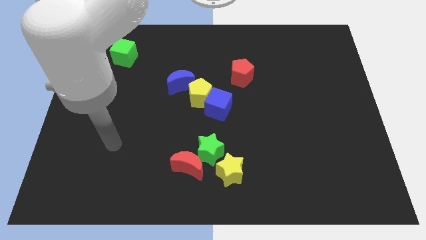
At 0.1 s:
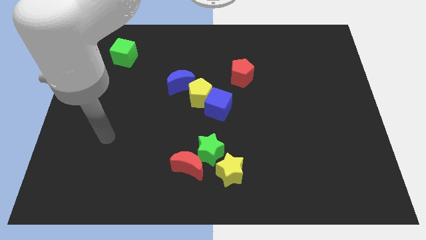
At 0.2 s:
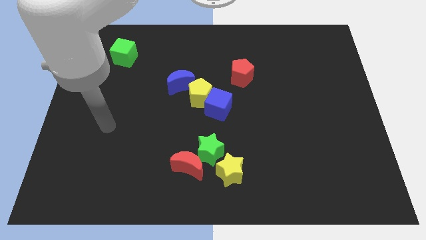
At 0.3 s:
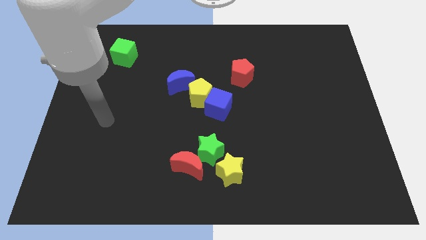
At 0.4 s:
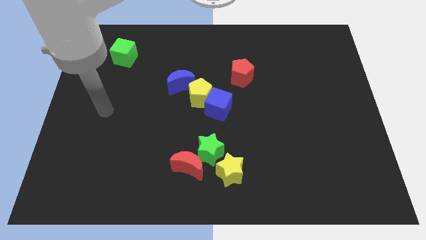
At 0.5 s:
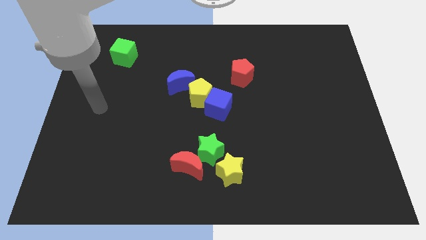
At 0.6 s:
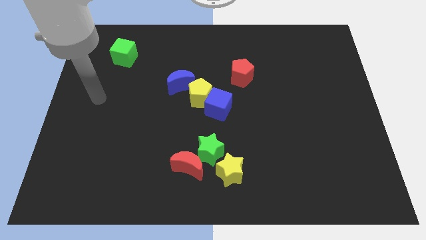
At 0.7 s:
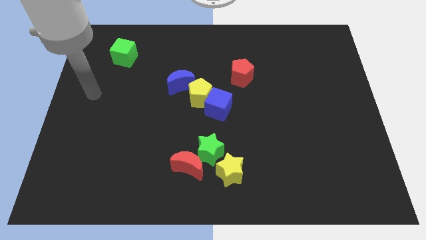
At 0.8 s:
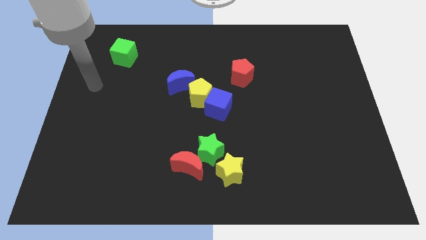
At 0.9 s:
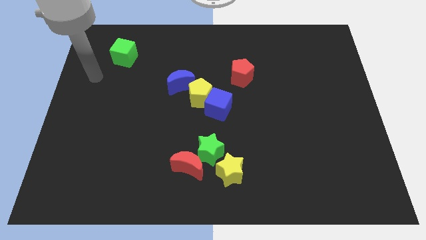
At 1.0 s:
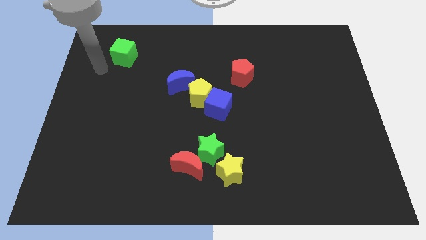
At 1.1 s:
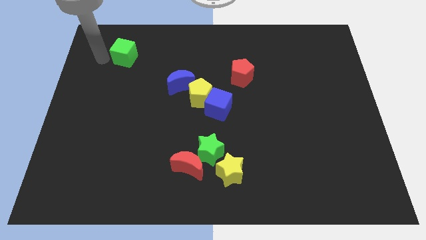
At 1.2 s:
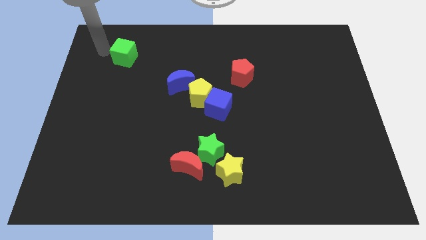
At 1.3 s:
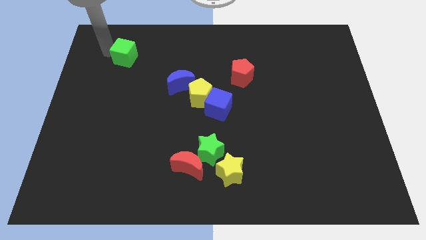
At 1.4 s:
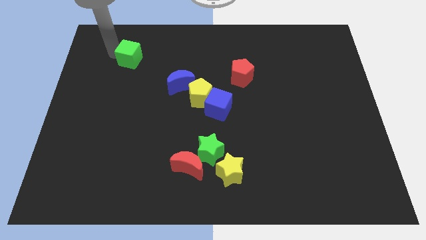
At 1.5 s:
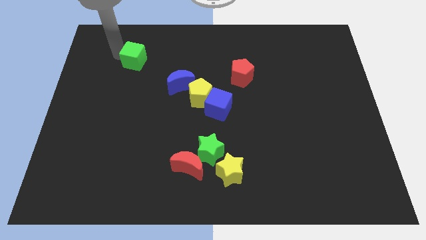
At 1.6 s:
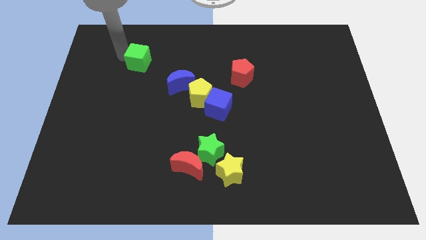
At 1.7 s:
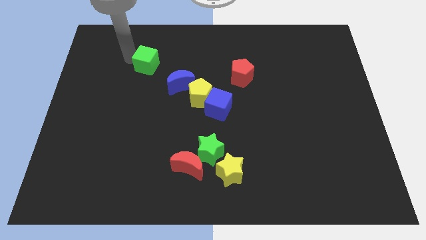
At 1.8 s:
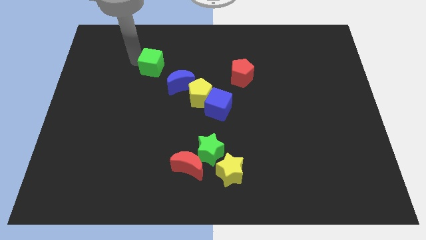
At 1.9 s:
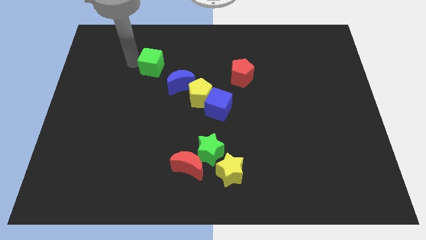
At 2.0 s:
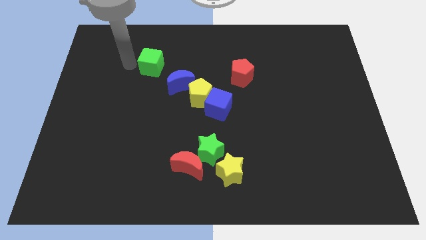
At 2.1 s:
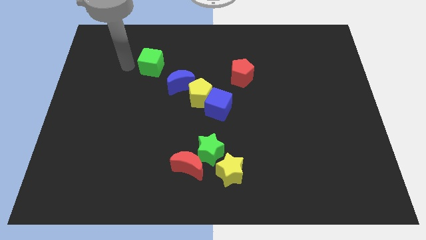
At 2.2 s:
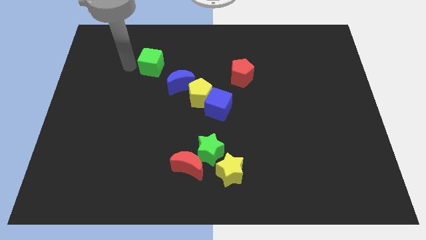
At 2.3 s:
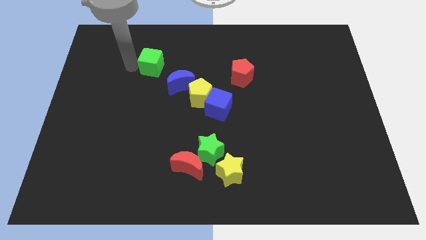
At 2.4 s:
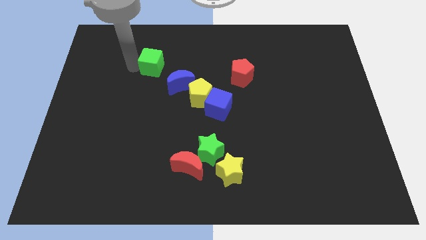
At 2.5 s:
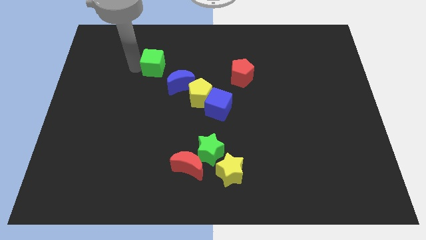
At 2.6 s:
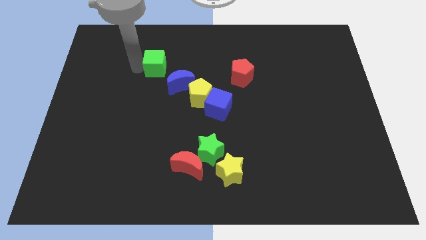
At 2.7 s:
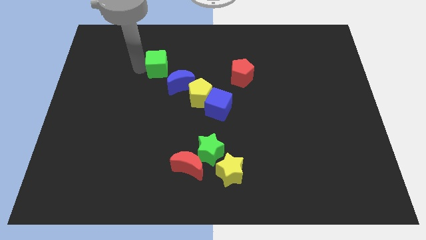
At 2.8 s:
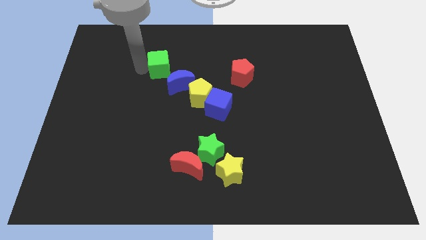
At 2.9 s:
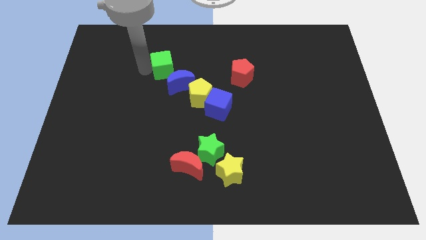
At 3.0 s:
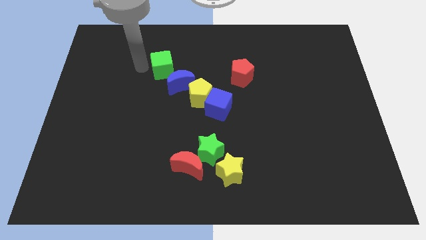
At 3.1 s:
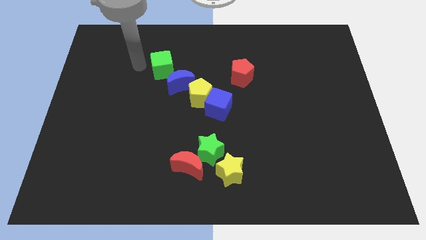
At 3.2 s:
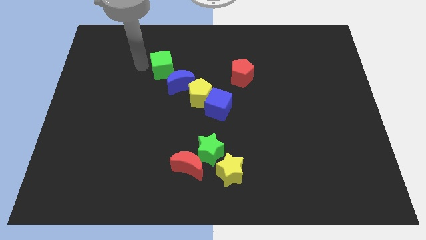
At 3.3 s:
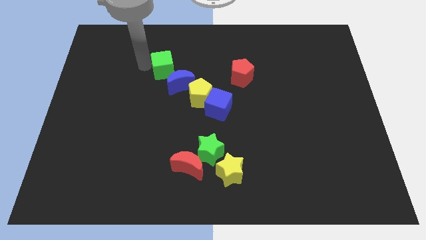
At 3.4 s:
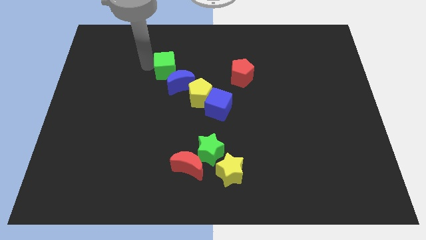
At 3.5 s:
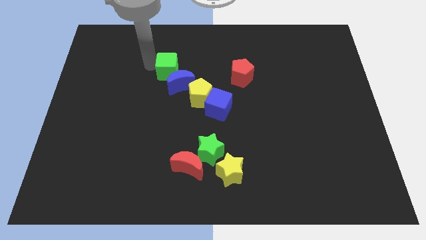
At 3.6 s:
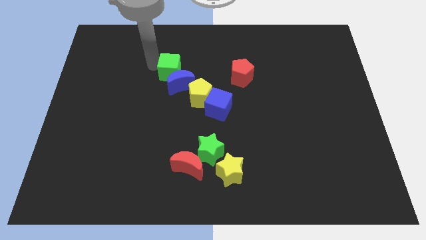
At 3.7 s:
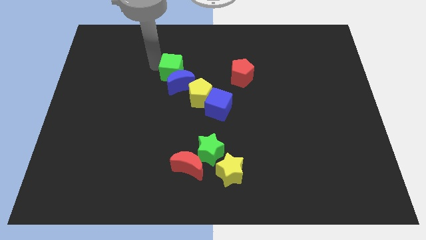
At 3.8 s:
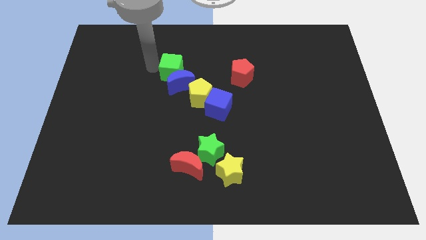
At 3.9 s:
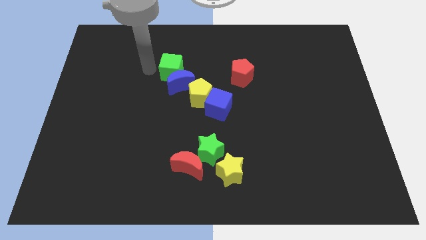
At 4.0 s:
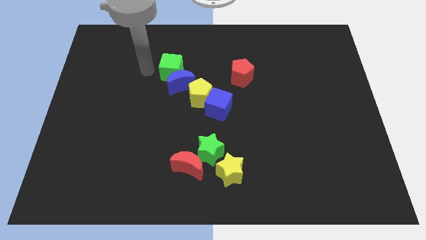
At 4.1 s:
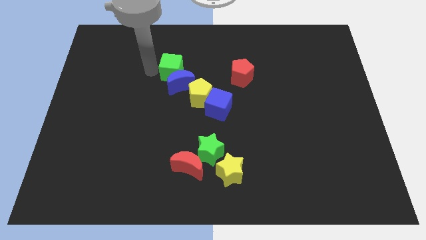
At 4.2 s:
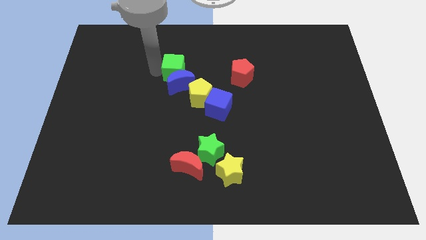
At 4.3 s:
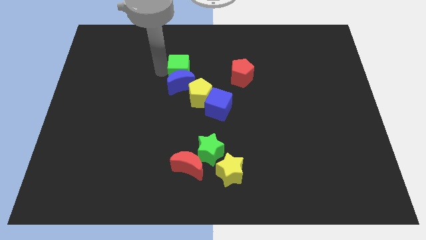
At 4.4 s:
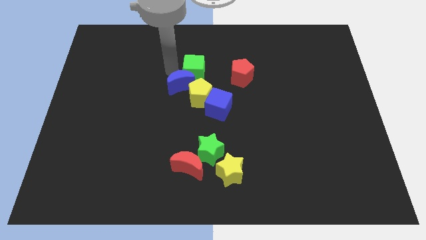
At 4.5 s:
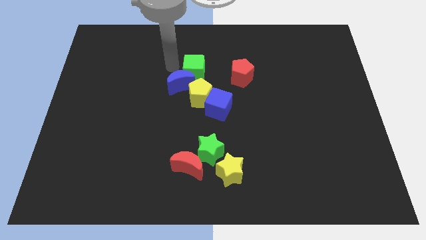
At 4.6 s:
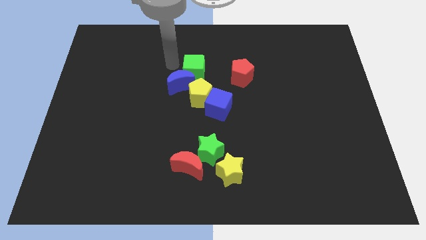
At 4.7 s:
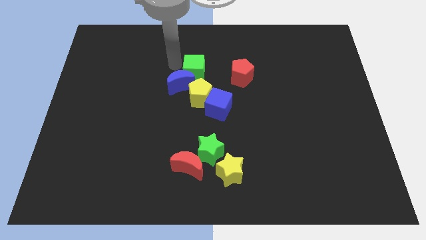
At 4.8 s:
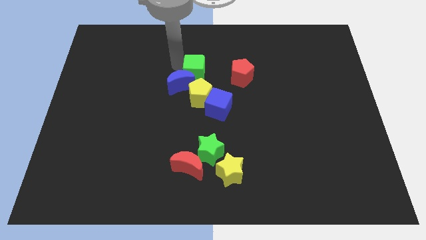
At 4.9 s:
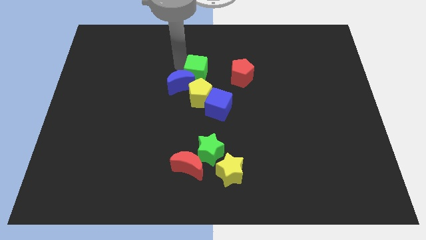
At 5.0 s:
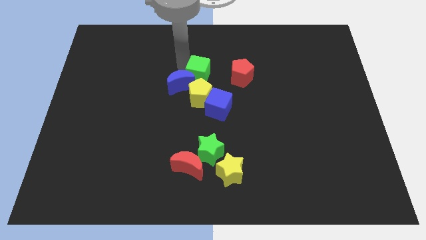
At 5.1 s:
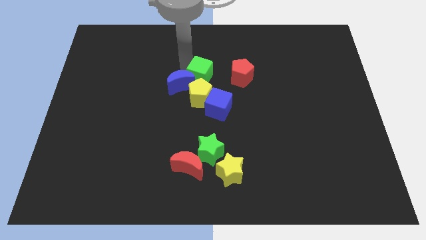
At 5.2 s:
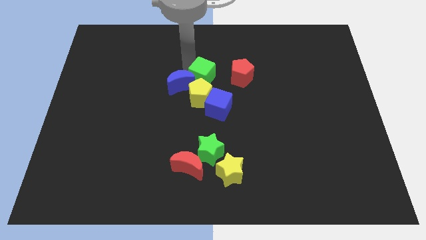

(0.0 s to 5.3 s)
push the green cube to the top right side of the yellow pentagon

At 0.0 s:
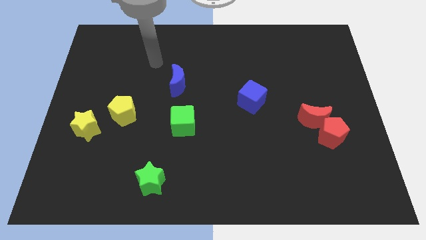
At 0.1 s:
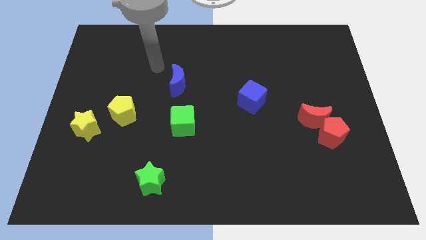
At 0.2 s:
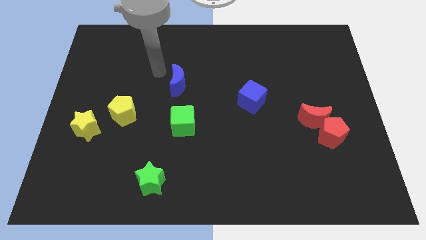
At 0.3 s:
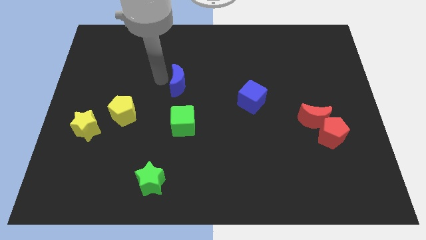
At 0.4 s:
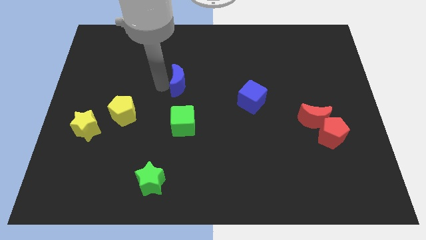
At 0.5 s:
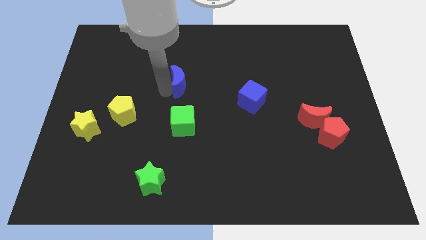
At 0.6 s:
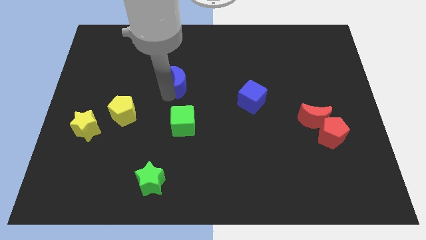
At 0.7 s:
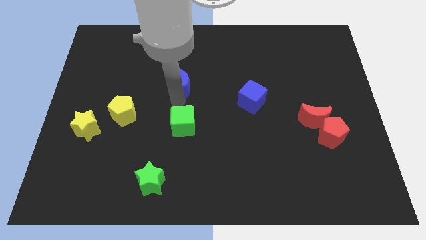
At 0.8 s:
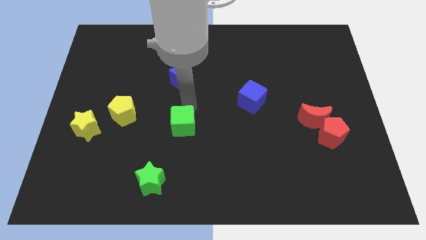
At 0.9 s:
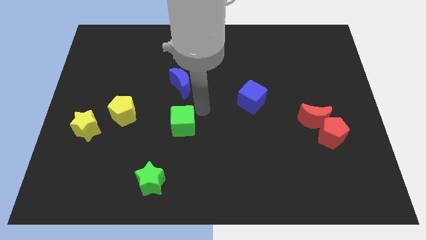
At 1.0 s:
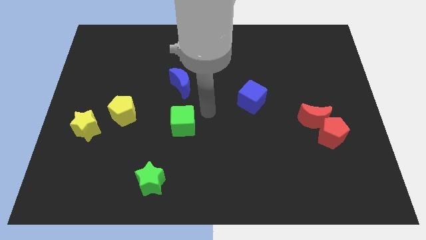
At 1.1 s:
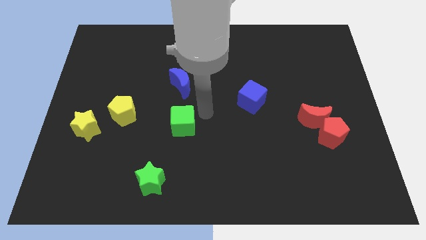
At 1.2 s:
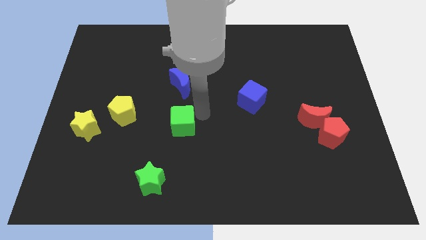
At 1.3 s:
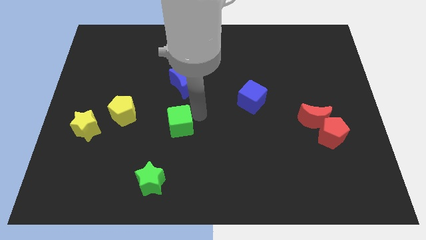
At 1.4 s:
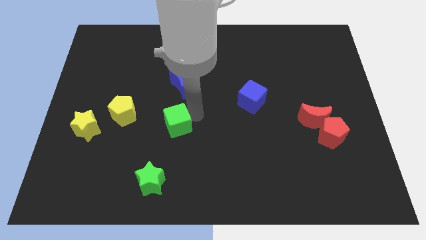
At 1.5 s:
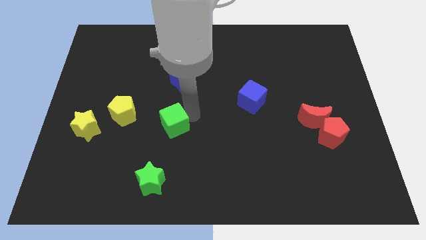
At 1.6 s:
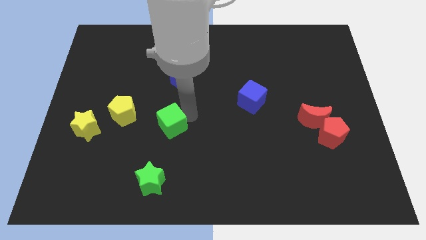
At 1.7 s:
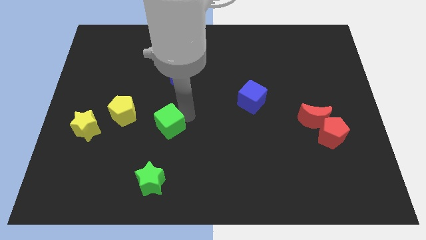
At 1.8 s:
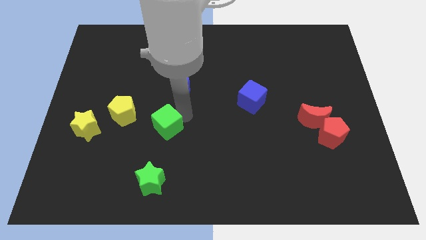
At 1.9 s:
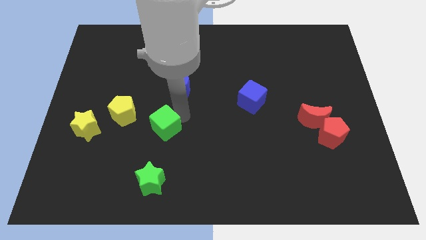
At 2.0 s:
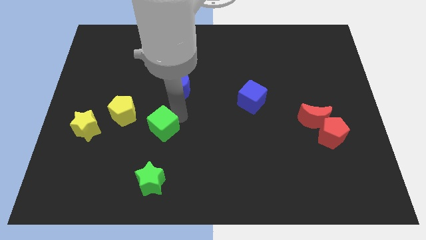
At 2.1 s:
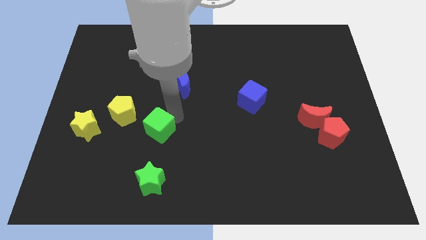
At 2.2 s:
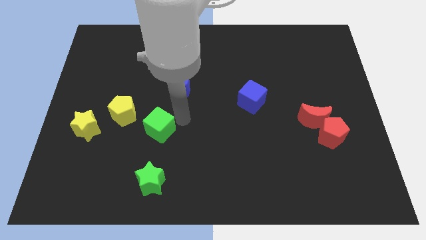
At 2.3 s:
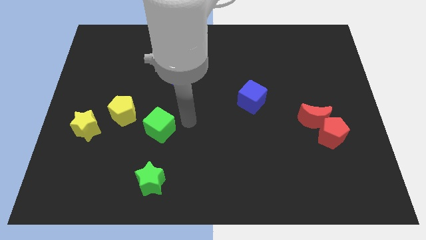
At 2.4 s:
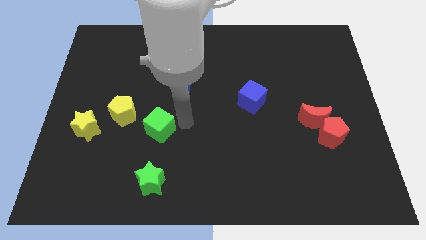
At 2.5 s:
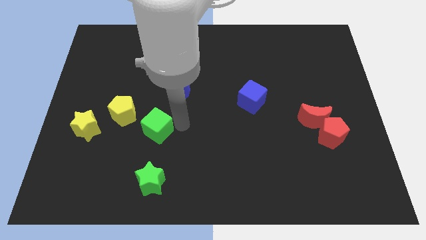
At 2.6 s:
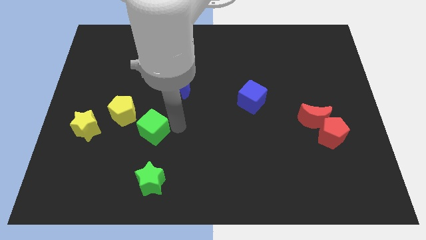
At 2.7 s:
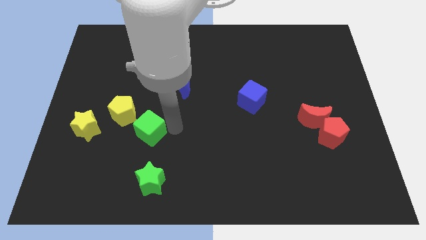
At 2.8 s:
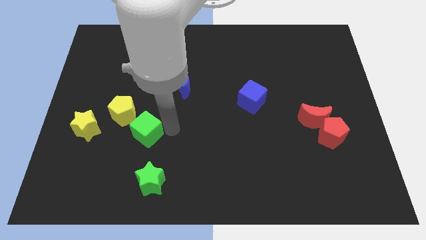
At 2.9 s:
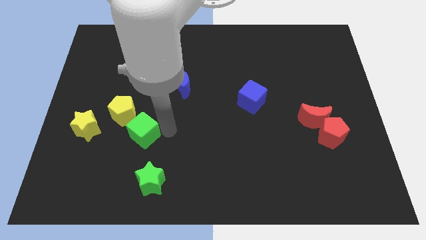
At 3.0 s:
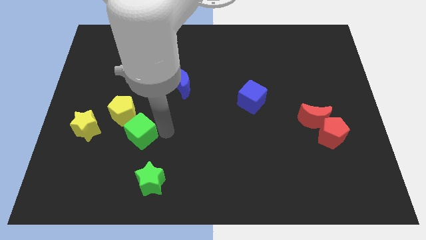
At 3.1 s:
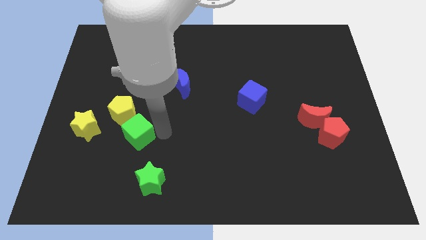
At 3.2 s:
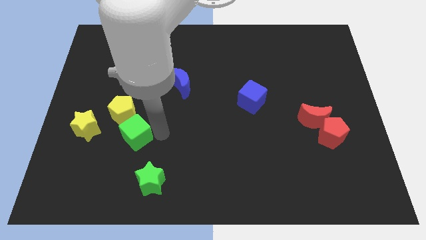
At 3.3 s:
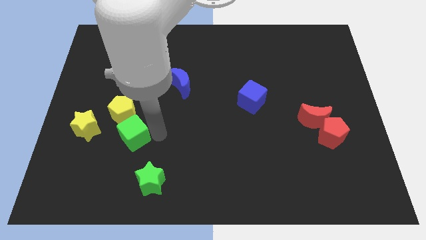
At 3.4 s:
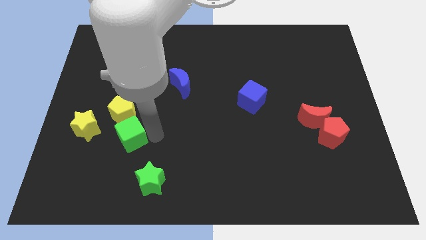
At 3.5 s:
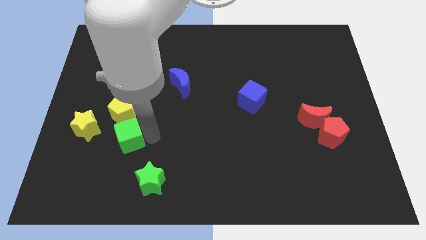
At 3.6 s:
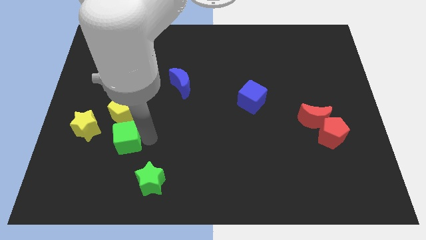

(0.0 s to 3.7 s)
slide the green cube diagonally down and to the right of the yellow star
